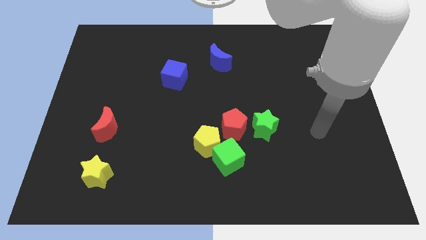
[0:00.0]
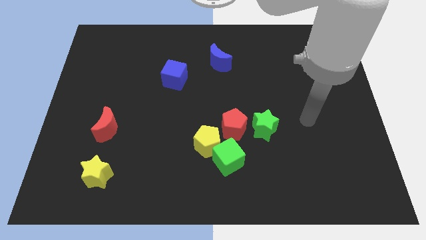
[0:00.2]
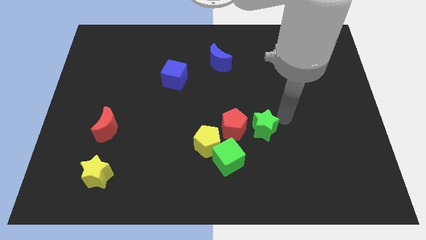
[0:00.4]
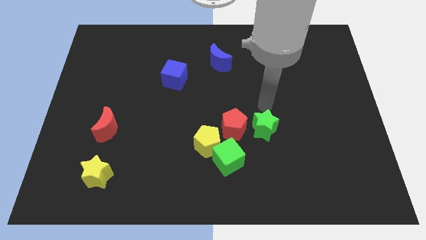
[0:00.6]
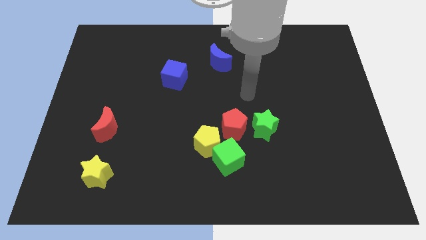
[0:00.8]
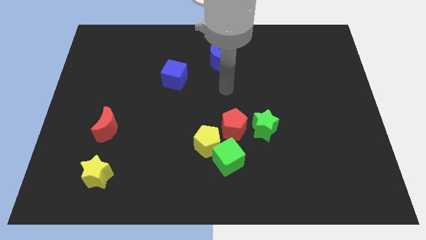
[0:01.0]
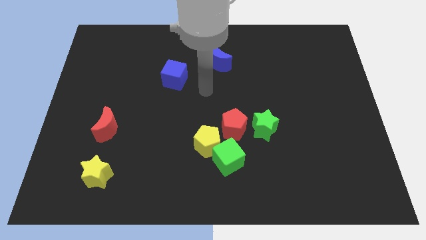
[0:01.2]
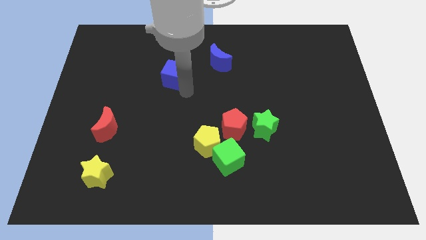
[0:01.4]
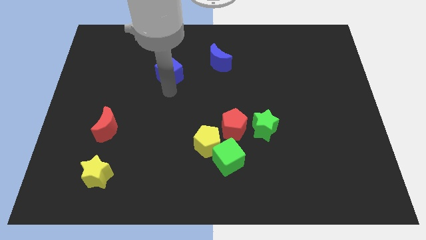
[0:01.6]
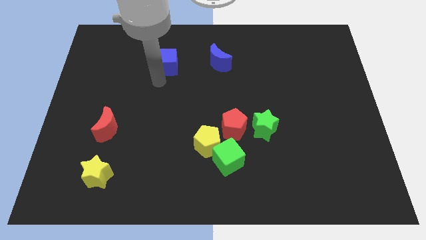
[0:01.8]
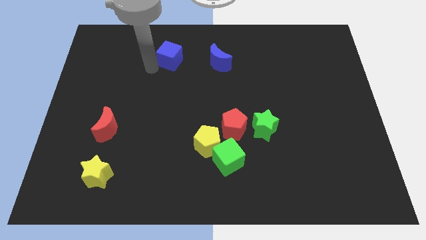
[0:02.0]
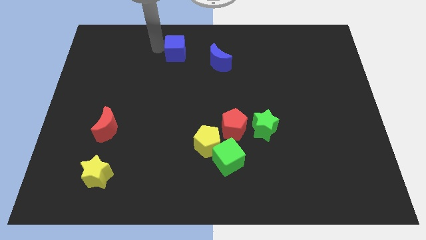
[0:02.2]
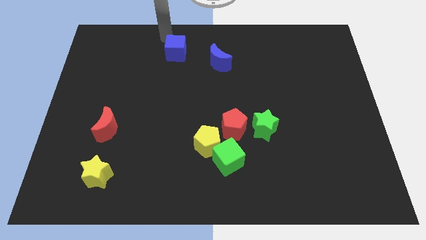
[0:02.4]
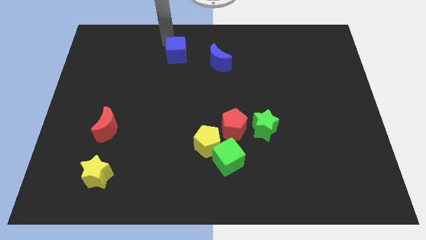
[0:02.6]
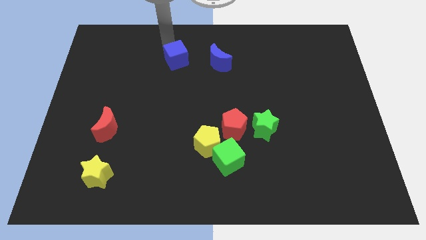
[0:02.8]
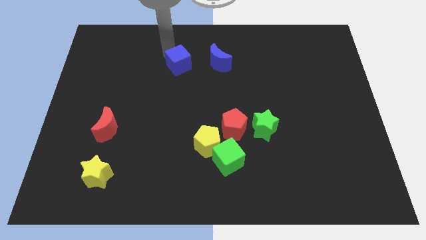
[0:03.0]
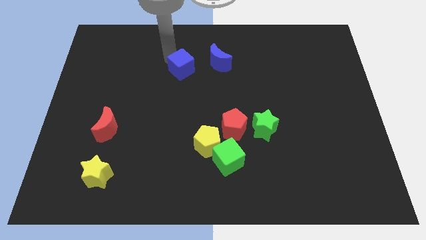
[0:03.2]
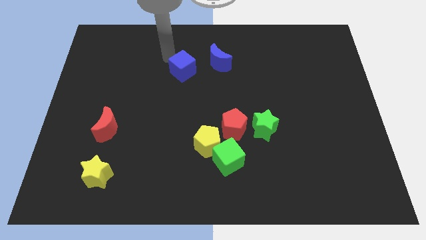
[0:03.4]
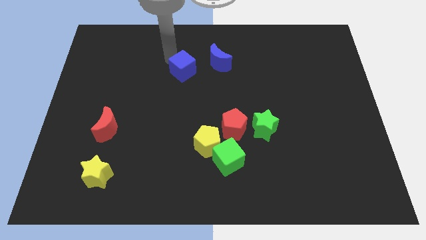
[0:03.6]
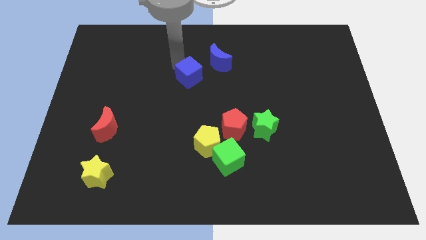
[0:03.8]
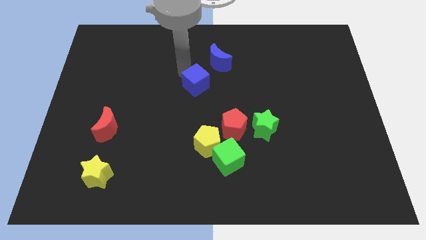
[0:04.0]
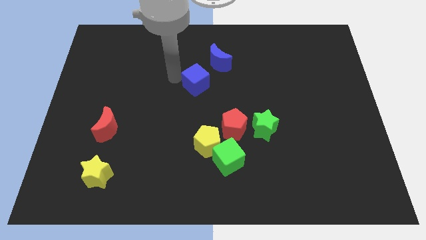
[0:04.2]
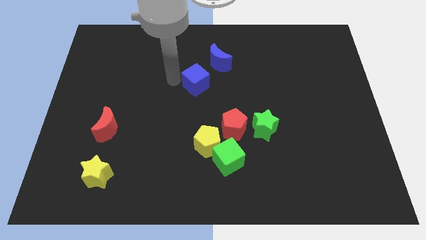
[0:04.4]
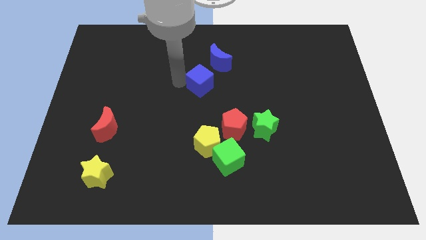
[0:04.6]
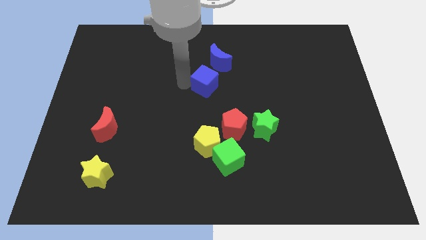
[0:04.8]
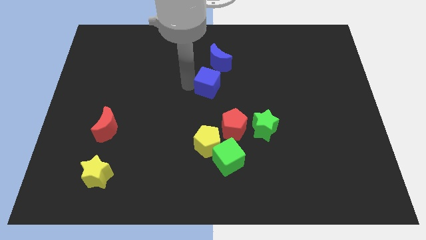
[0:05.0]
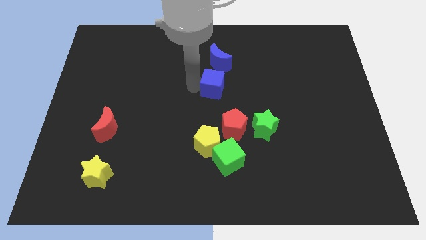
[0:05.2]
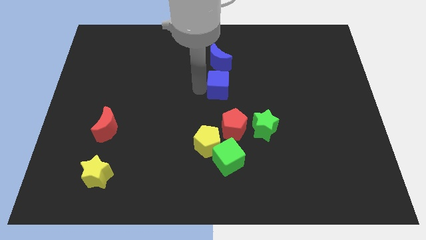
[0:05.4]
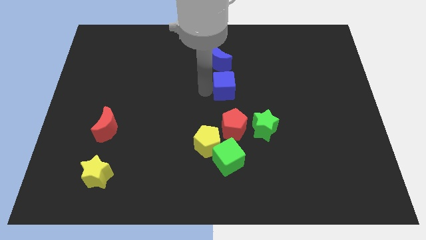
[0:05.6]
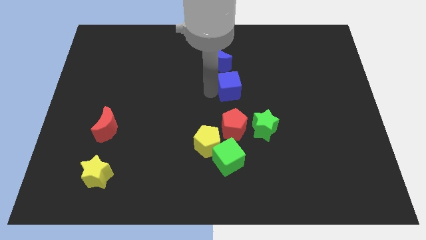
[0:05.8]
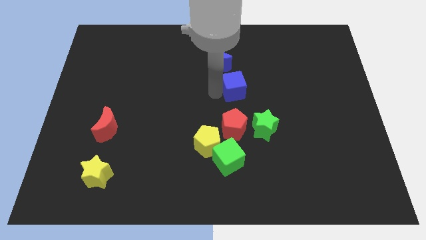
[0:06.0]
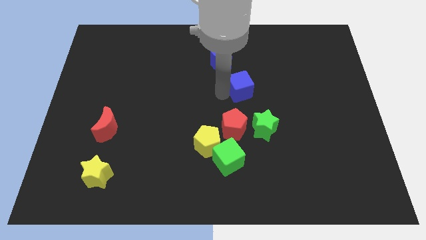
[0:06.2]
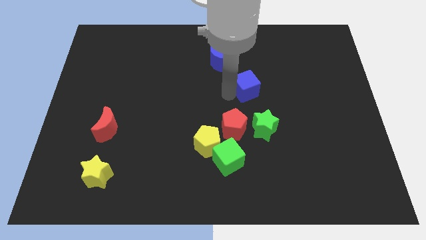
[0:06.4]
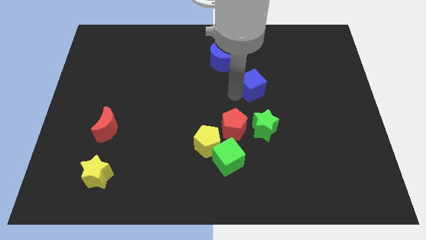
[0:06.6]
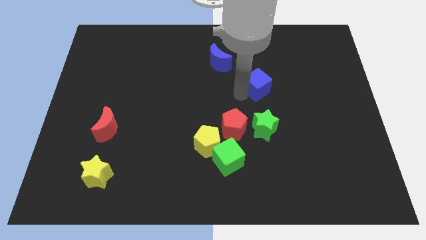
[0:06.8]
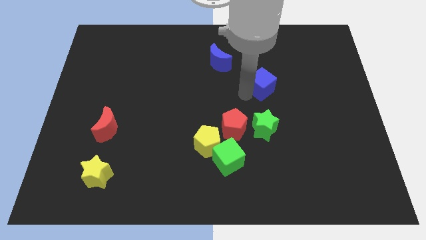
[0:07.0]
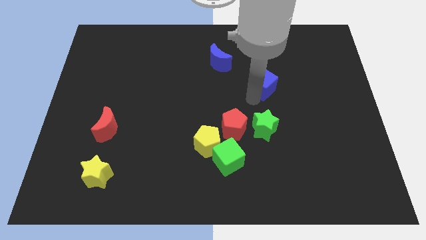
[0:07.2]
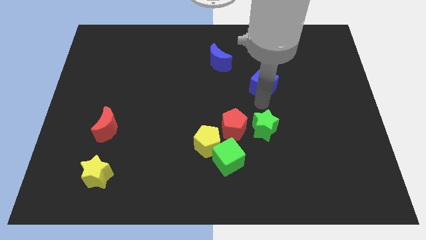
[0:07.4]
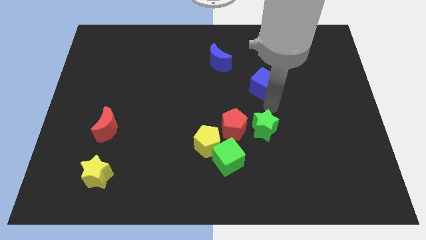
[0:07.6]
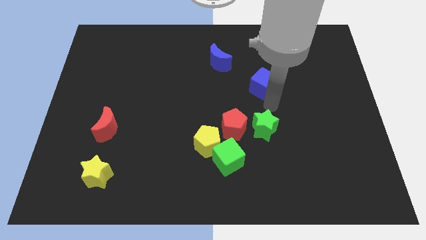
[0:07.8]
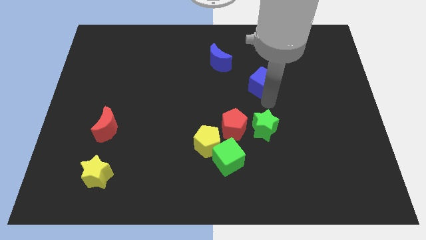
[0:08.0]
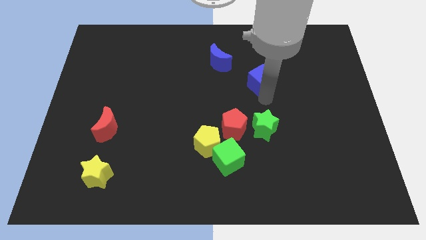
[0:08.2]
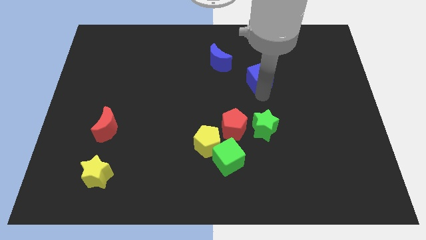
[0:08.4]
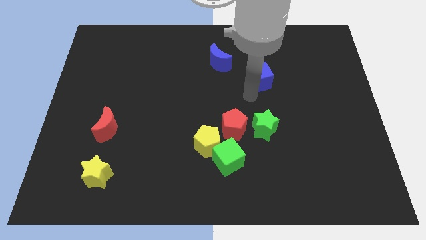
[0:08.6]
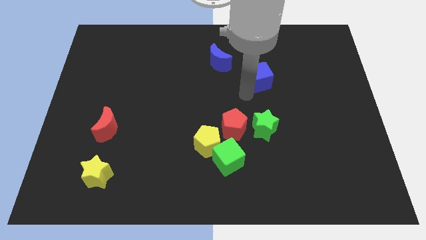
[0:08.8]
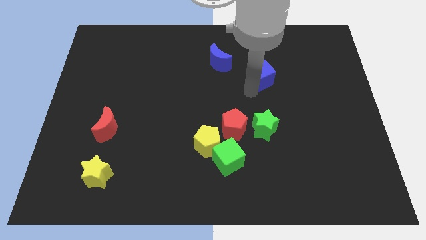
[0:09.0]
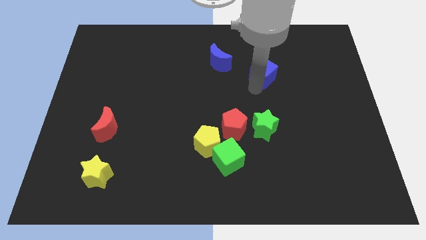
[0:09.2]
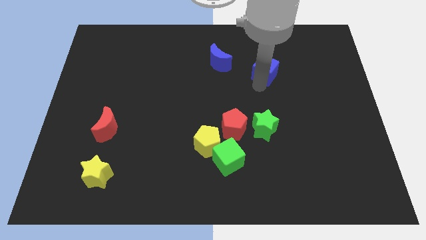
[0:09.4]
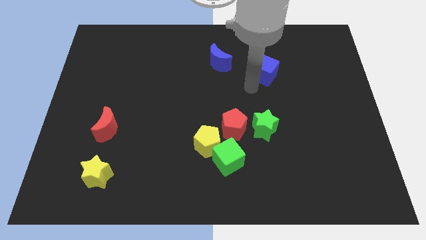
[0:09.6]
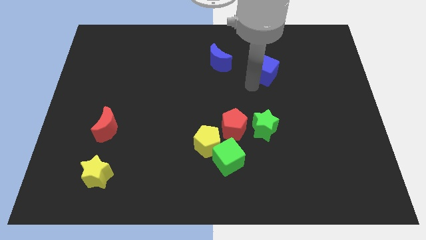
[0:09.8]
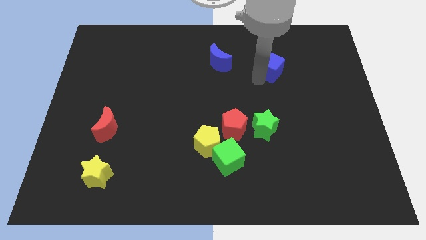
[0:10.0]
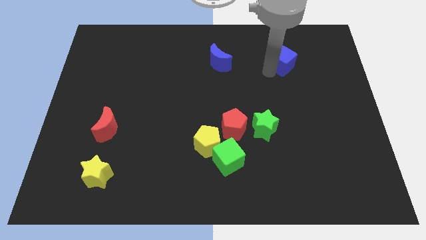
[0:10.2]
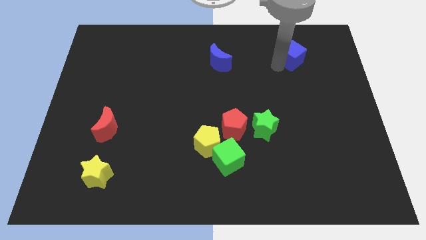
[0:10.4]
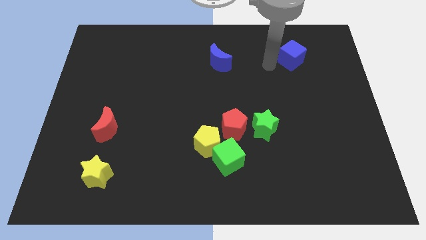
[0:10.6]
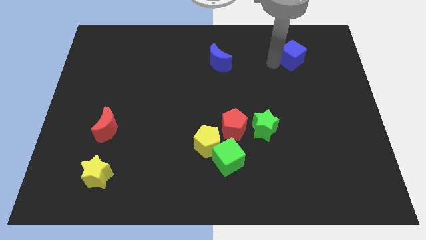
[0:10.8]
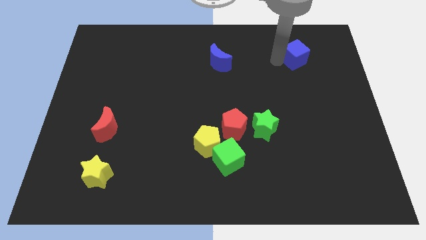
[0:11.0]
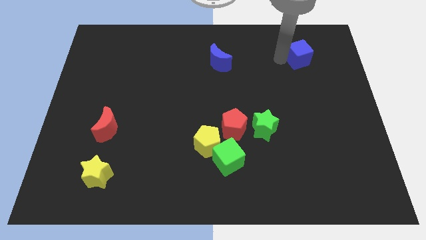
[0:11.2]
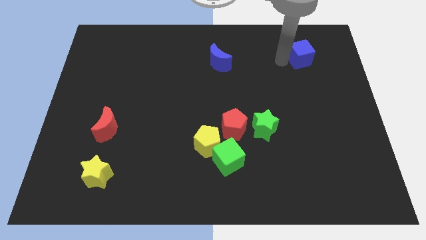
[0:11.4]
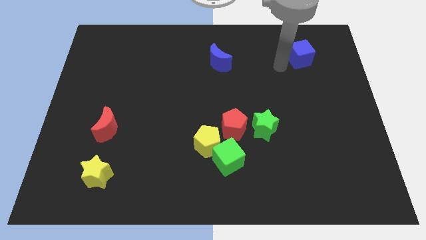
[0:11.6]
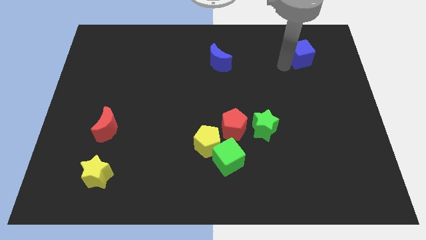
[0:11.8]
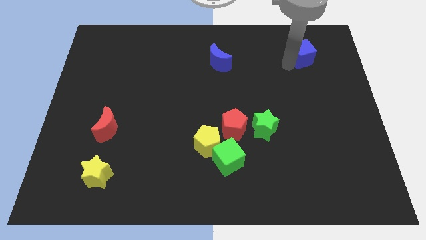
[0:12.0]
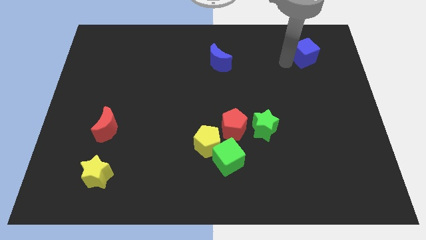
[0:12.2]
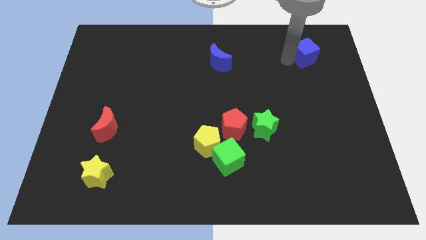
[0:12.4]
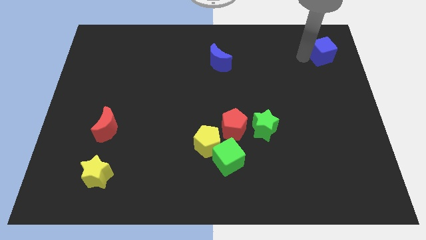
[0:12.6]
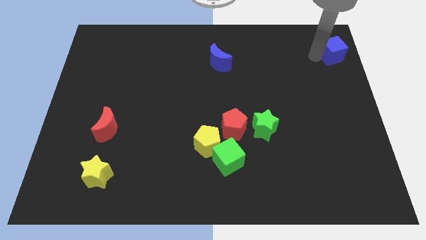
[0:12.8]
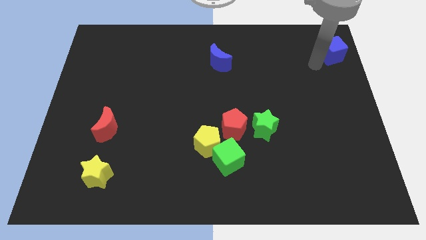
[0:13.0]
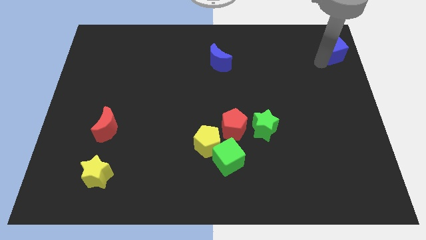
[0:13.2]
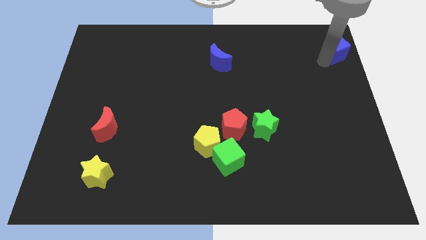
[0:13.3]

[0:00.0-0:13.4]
put the blue cube to the top right
